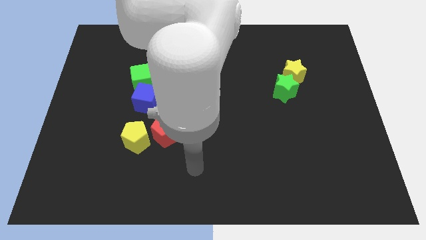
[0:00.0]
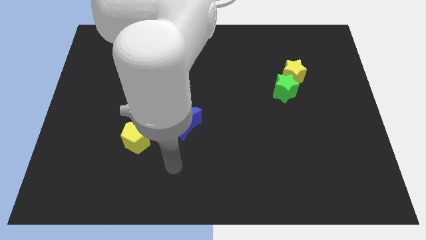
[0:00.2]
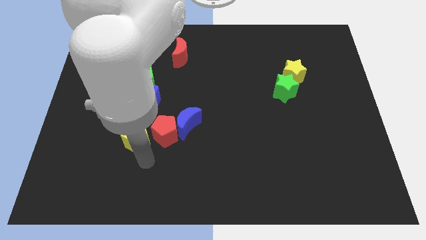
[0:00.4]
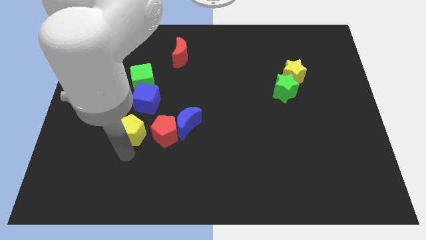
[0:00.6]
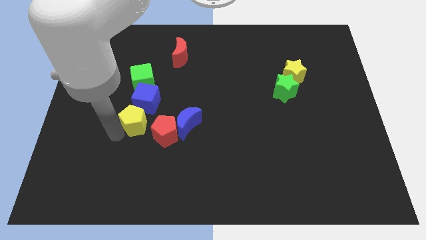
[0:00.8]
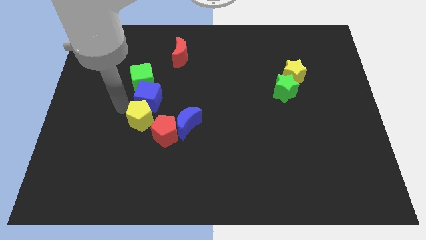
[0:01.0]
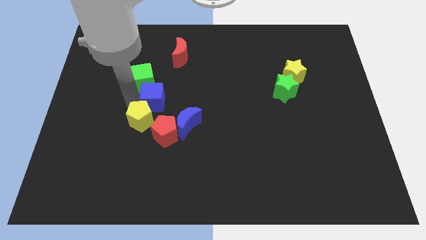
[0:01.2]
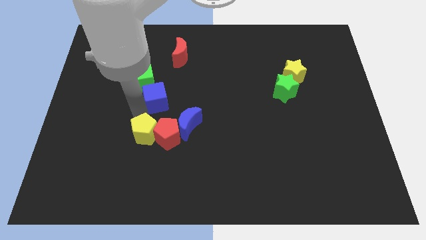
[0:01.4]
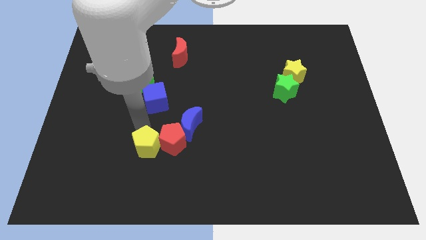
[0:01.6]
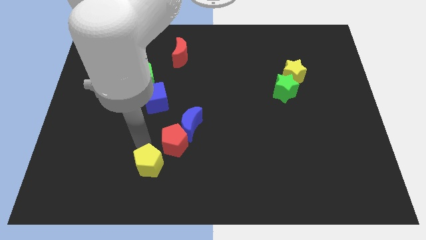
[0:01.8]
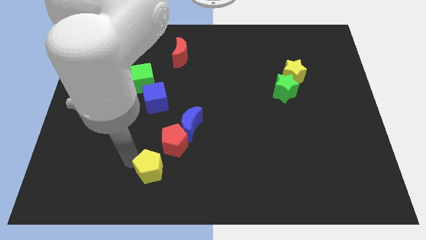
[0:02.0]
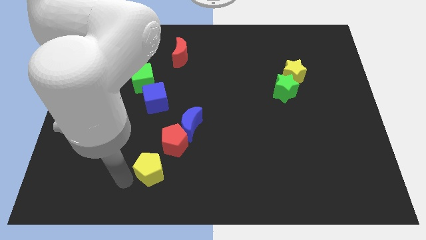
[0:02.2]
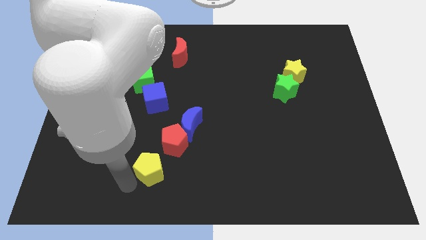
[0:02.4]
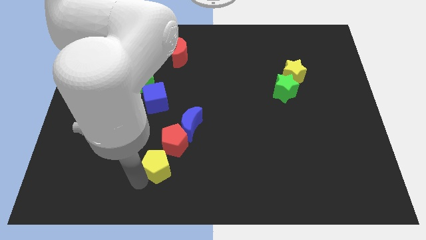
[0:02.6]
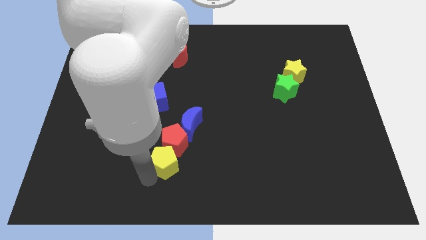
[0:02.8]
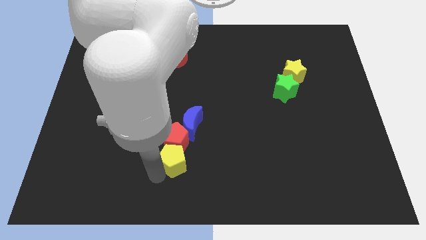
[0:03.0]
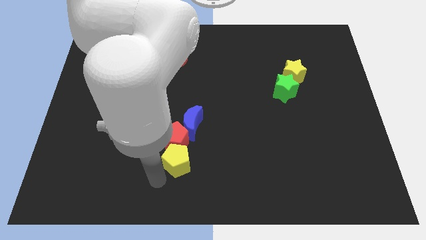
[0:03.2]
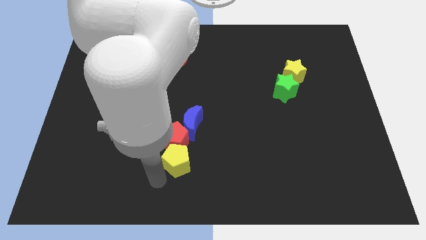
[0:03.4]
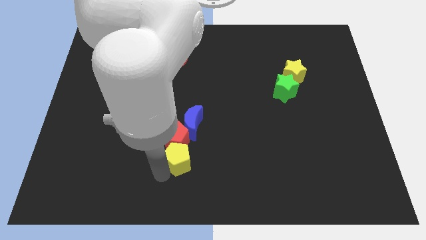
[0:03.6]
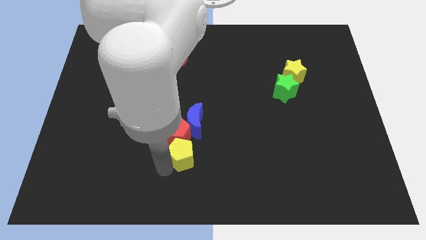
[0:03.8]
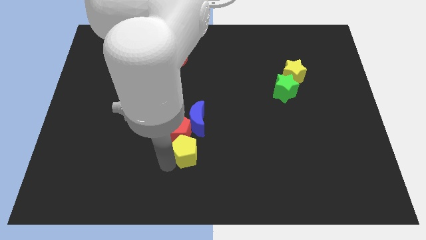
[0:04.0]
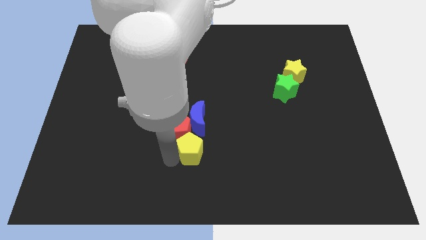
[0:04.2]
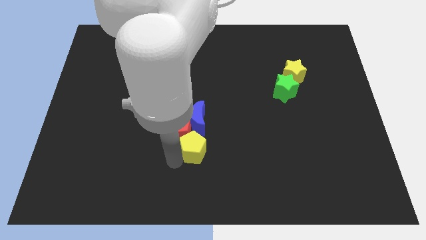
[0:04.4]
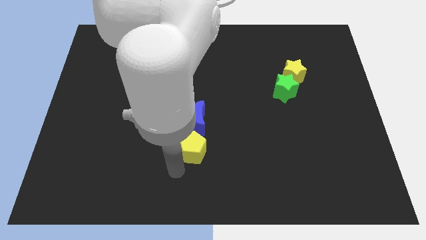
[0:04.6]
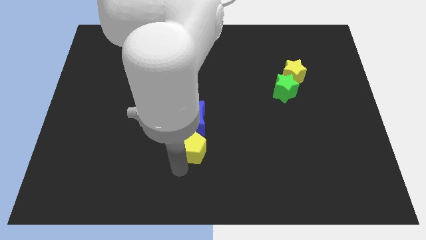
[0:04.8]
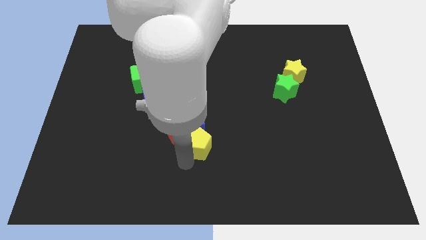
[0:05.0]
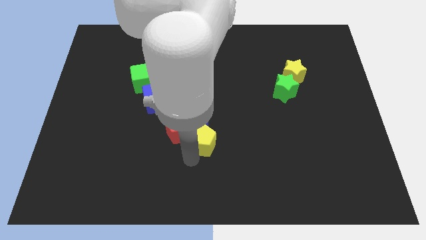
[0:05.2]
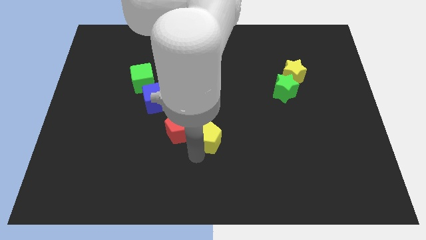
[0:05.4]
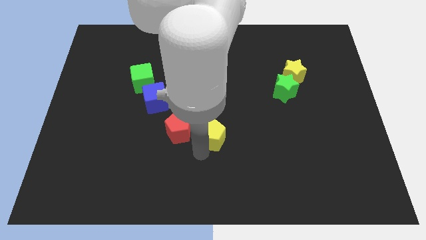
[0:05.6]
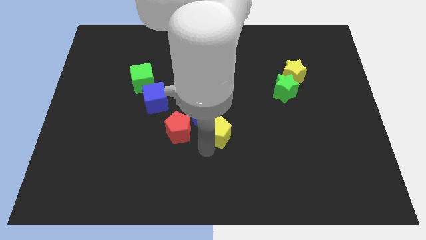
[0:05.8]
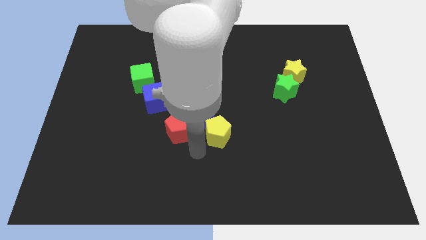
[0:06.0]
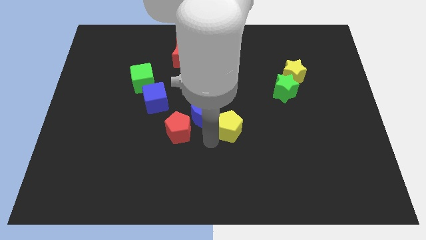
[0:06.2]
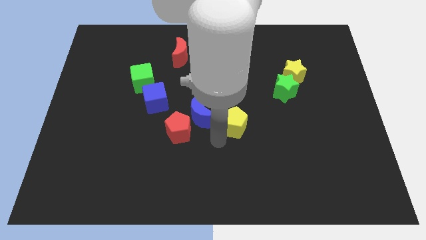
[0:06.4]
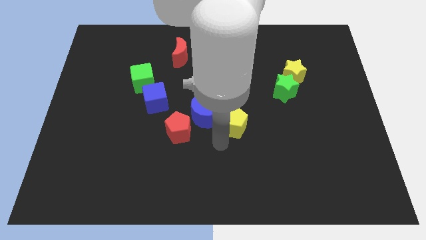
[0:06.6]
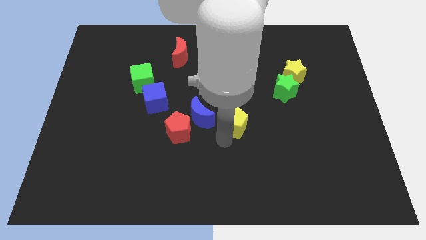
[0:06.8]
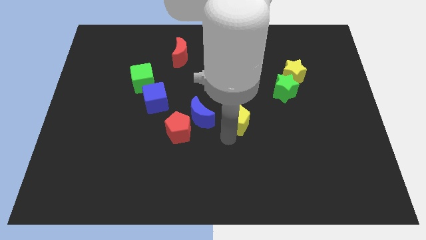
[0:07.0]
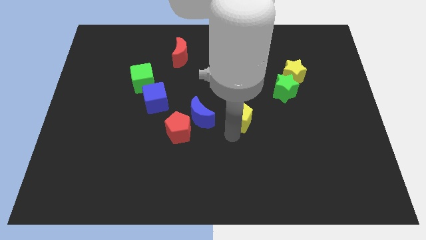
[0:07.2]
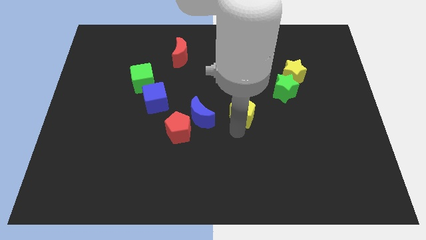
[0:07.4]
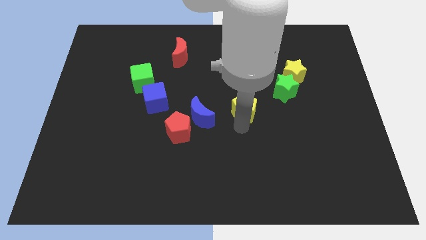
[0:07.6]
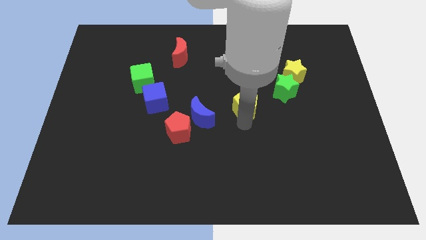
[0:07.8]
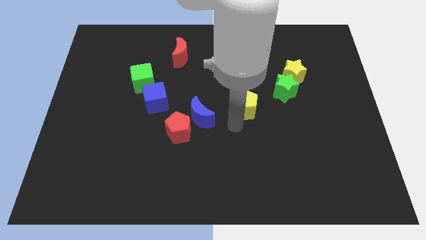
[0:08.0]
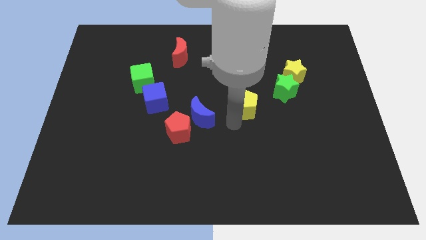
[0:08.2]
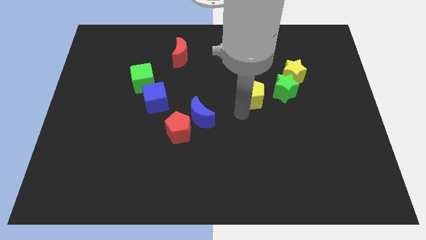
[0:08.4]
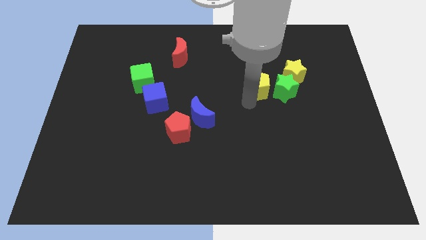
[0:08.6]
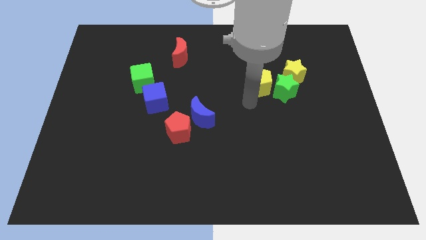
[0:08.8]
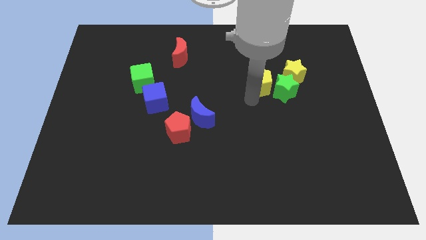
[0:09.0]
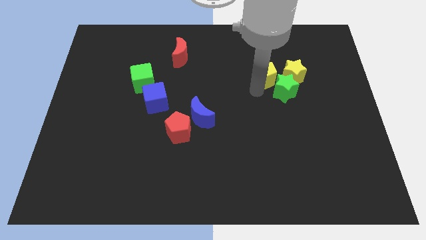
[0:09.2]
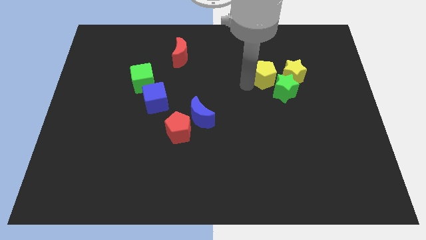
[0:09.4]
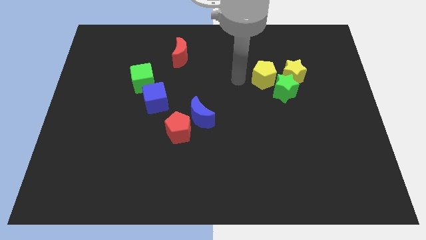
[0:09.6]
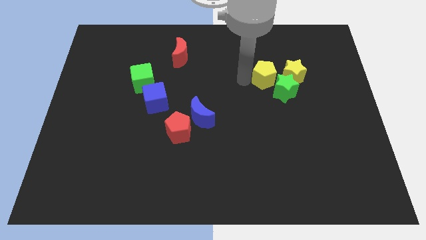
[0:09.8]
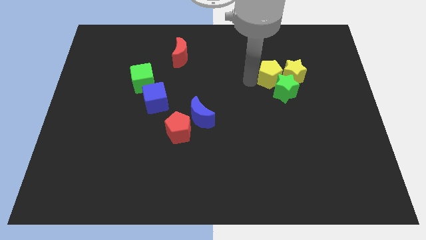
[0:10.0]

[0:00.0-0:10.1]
move the yellow pentagon to the yellow star

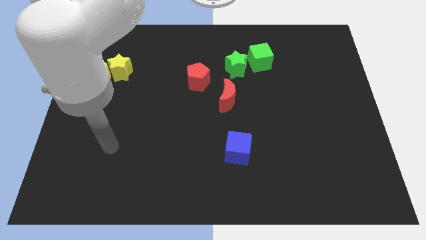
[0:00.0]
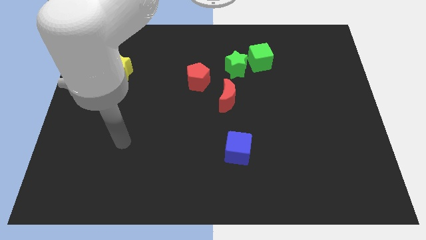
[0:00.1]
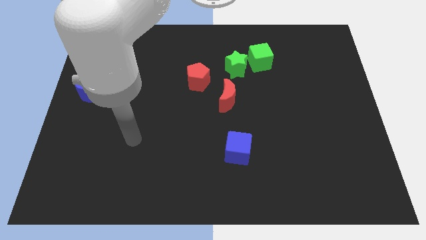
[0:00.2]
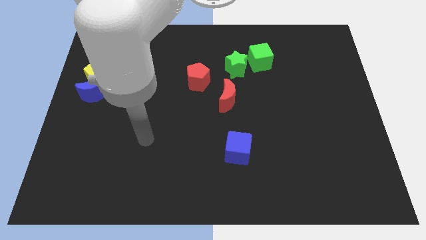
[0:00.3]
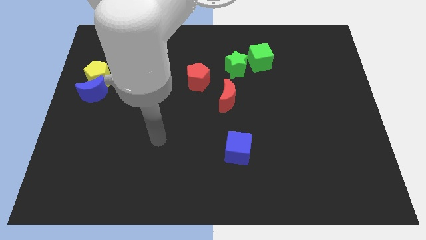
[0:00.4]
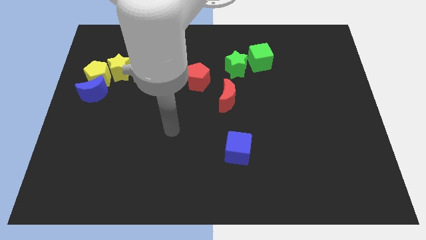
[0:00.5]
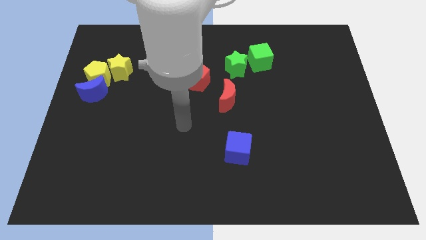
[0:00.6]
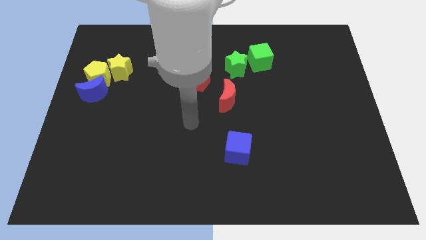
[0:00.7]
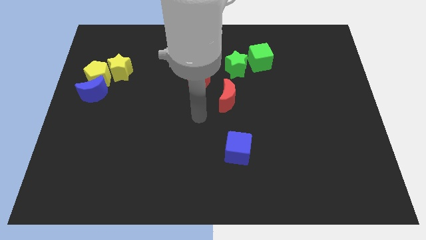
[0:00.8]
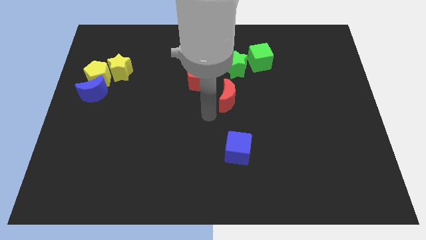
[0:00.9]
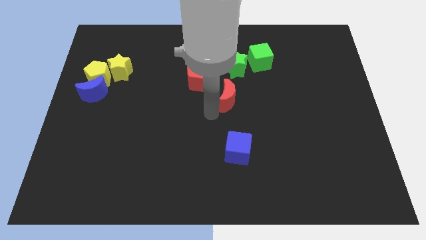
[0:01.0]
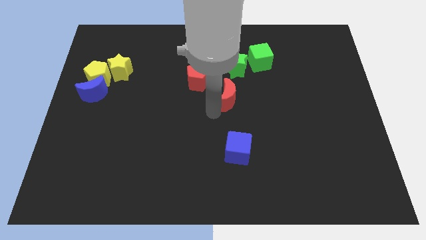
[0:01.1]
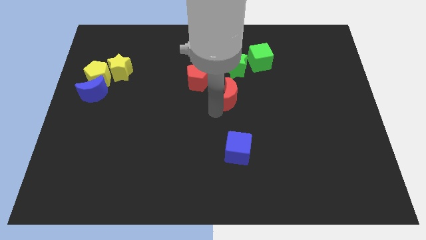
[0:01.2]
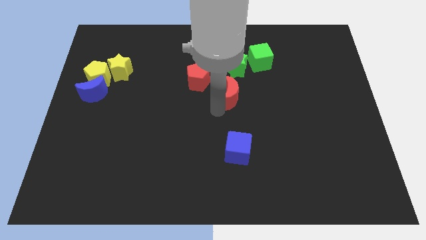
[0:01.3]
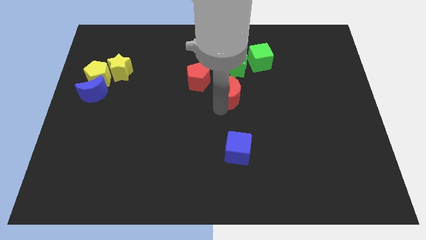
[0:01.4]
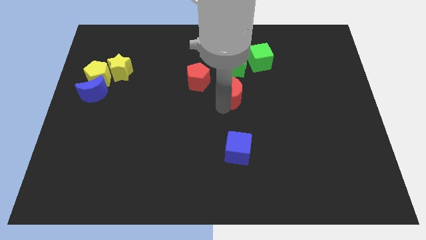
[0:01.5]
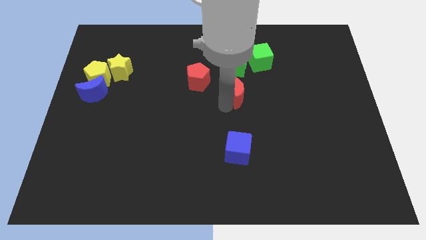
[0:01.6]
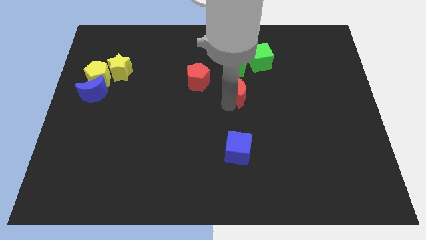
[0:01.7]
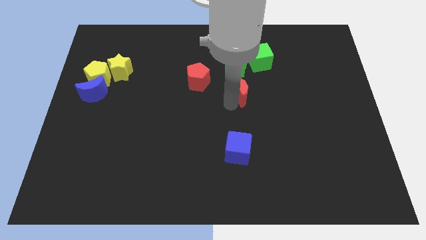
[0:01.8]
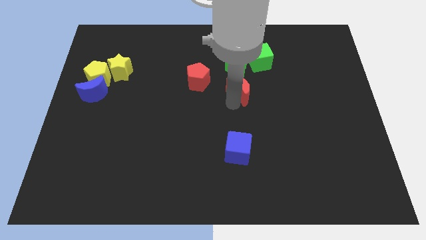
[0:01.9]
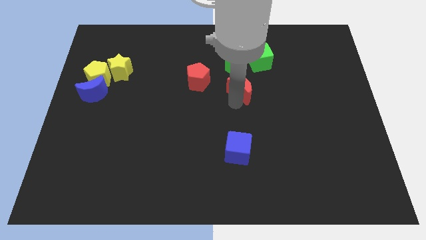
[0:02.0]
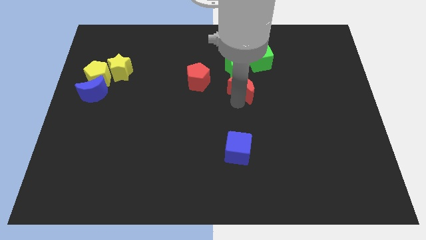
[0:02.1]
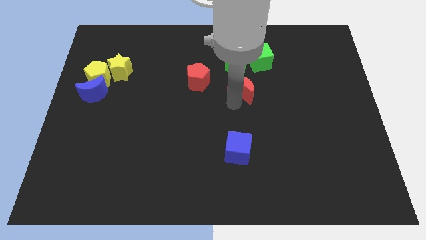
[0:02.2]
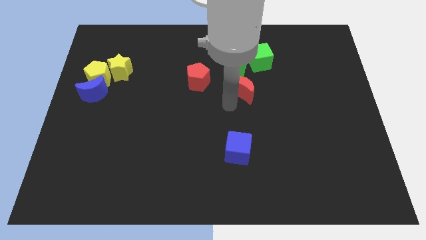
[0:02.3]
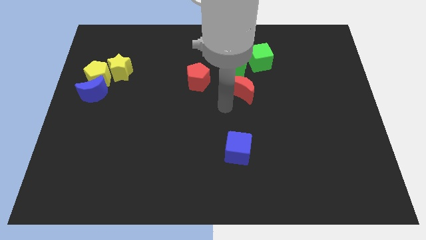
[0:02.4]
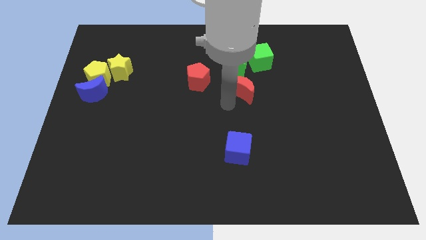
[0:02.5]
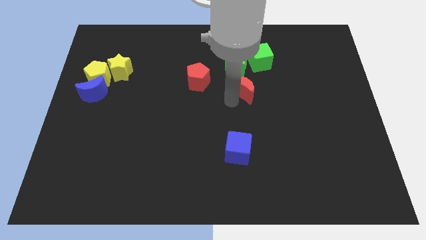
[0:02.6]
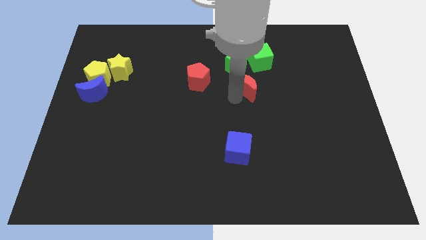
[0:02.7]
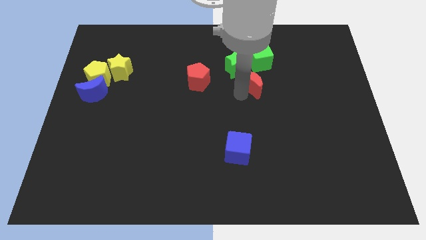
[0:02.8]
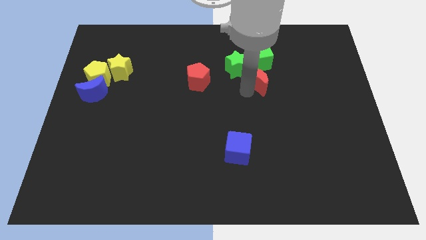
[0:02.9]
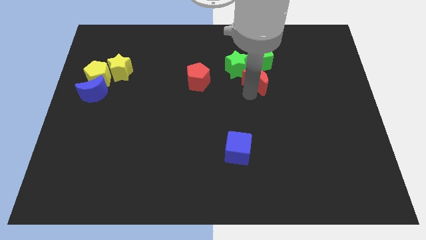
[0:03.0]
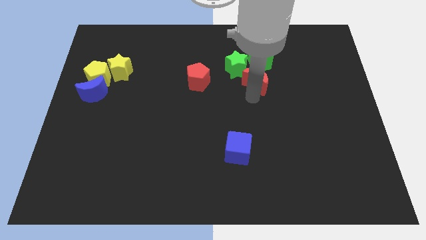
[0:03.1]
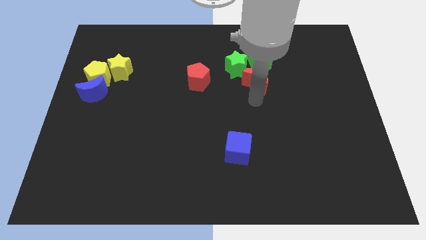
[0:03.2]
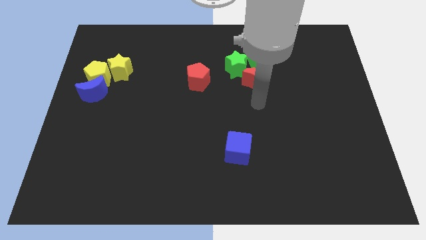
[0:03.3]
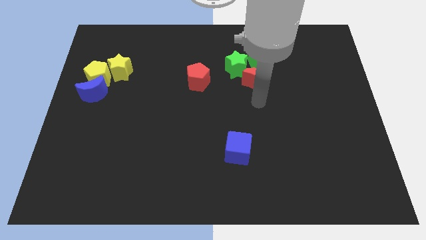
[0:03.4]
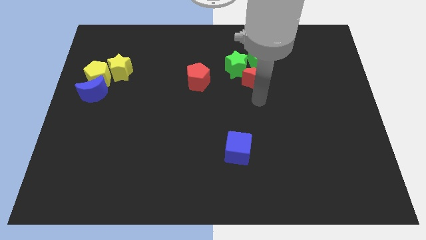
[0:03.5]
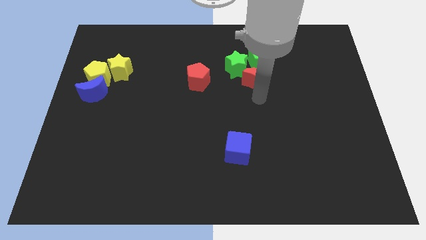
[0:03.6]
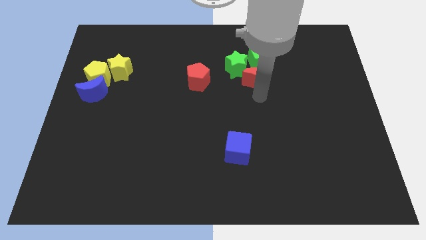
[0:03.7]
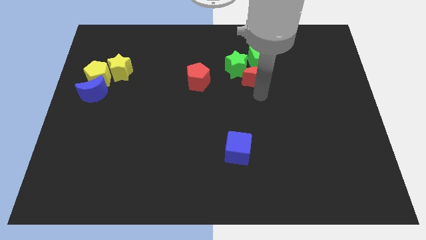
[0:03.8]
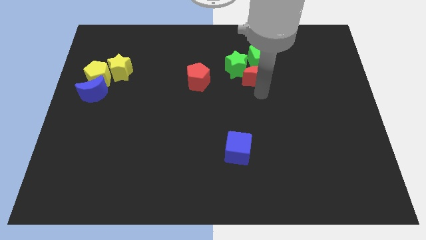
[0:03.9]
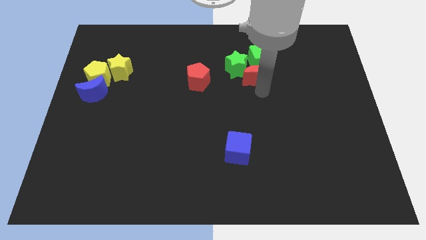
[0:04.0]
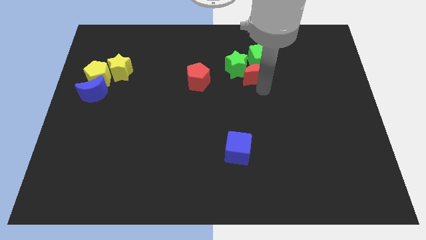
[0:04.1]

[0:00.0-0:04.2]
put the red moon to the green cube
